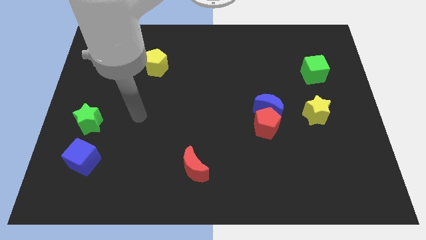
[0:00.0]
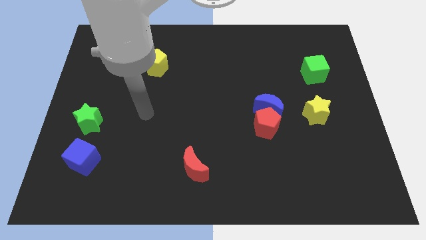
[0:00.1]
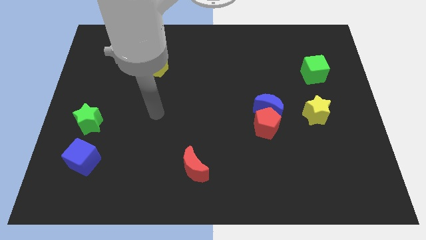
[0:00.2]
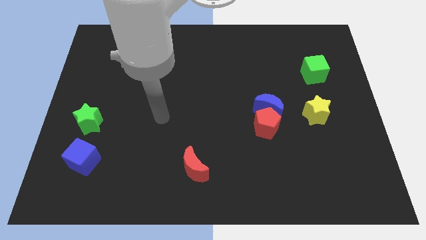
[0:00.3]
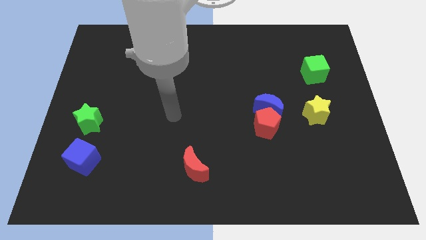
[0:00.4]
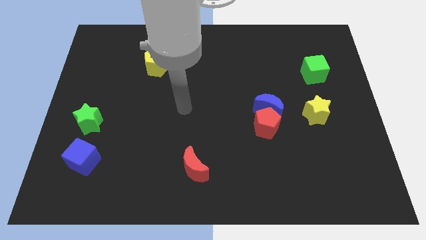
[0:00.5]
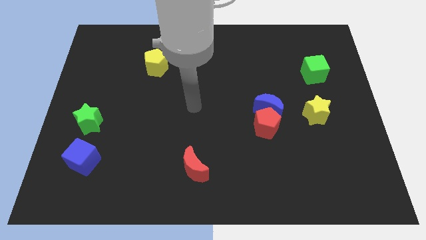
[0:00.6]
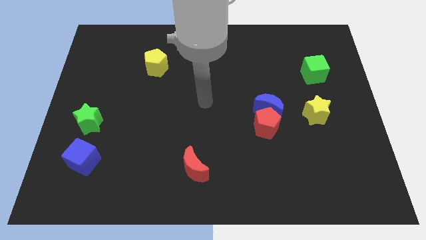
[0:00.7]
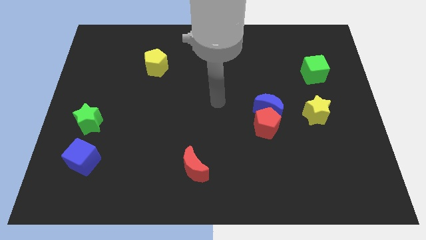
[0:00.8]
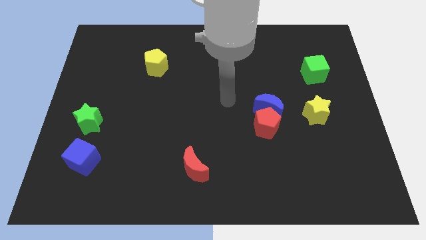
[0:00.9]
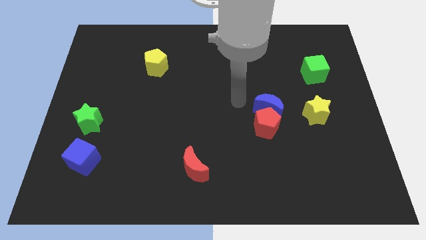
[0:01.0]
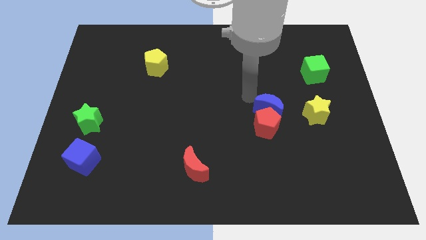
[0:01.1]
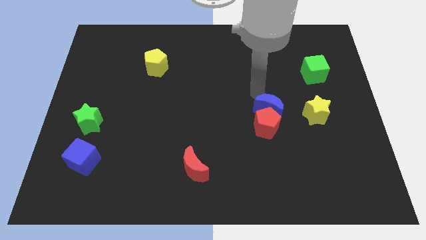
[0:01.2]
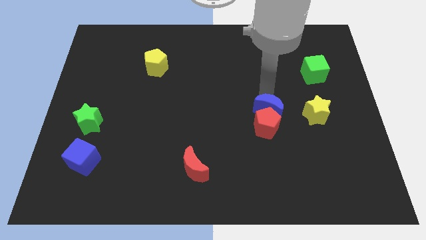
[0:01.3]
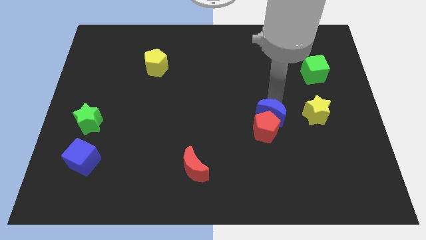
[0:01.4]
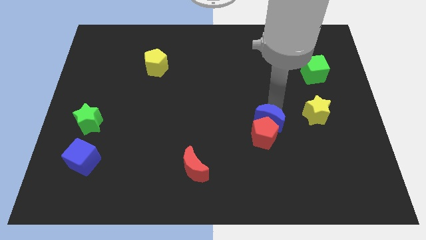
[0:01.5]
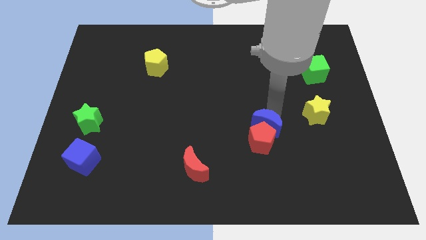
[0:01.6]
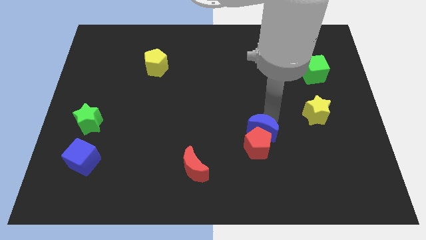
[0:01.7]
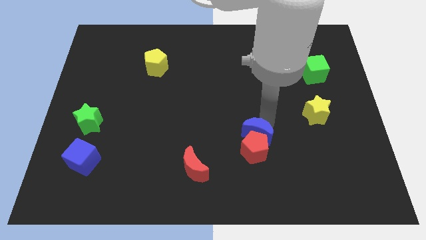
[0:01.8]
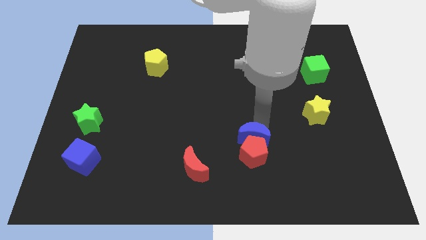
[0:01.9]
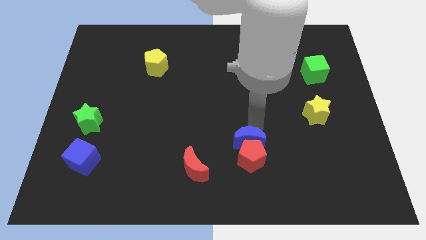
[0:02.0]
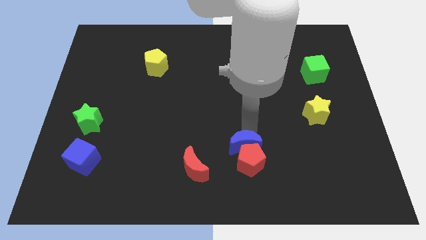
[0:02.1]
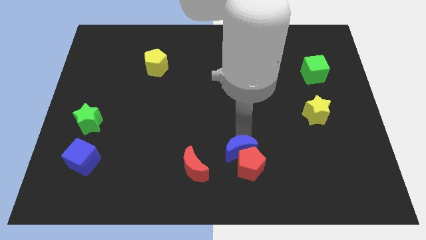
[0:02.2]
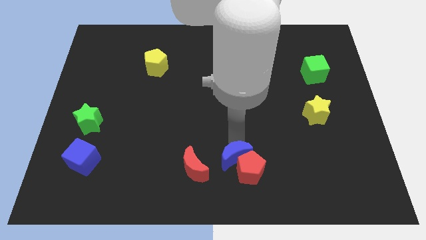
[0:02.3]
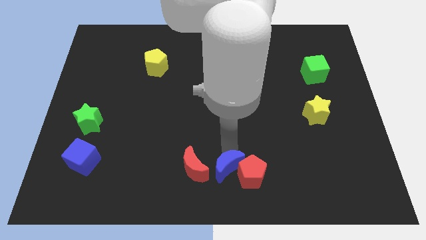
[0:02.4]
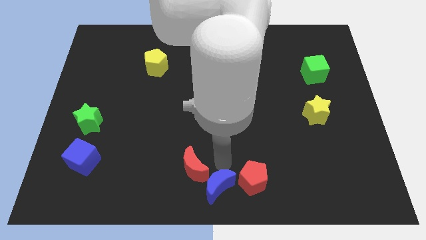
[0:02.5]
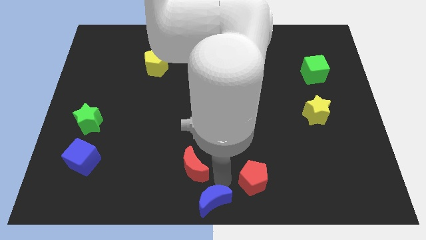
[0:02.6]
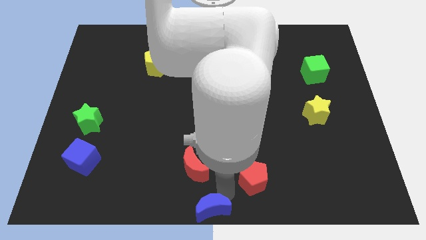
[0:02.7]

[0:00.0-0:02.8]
separate the red pentagon from the blue moon

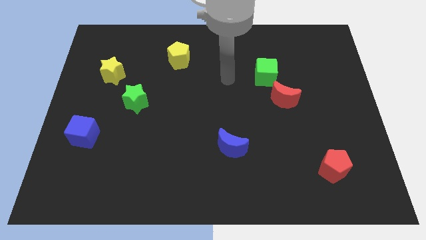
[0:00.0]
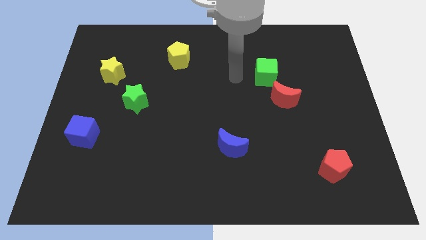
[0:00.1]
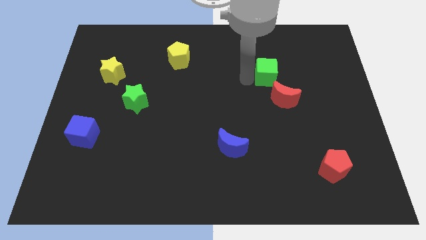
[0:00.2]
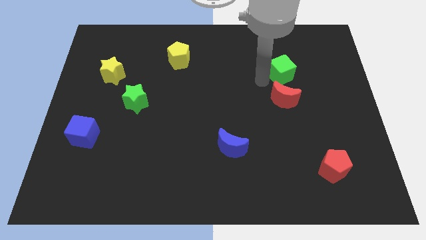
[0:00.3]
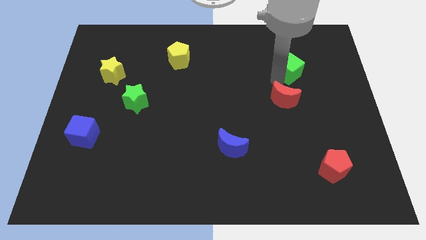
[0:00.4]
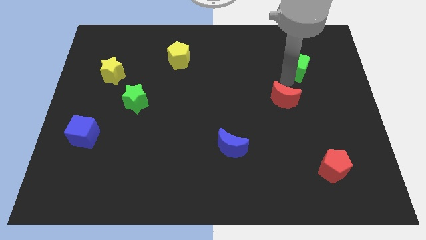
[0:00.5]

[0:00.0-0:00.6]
move the red moon away from the green cube

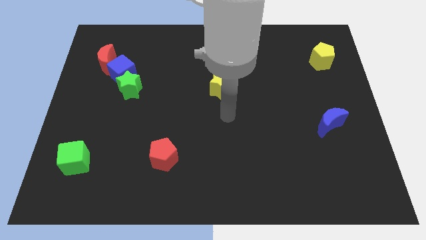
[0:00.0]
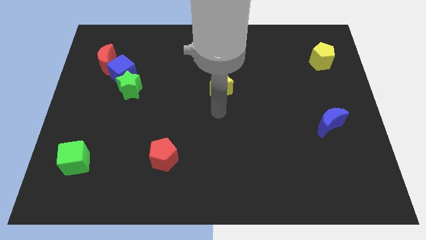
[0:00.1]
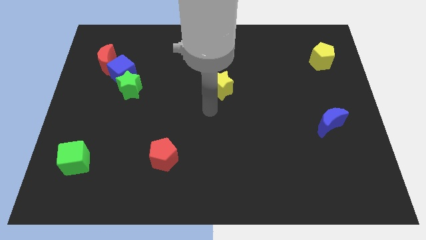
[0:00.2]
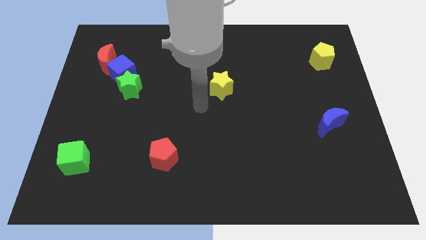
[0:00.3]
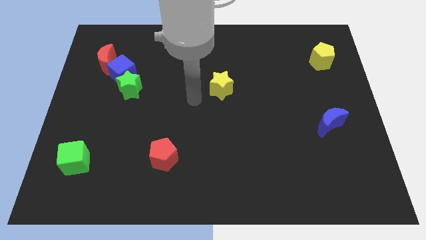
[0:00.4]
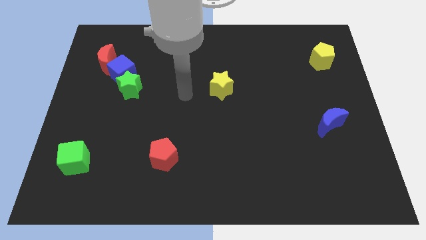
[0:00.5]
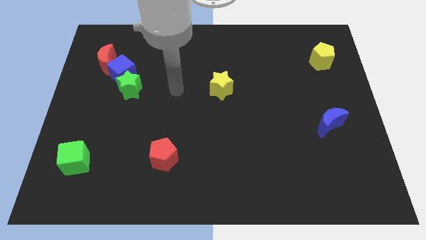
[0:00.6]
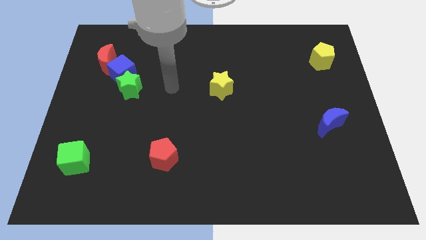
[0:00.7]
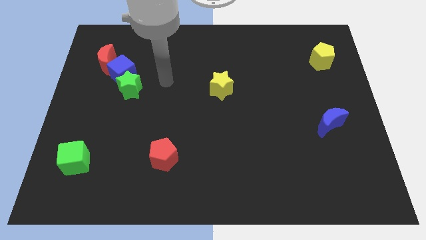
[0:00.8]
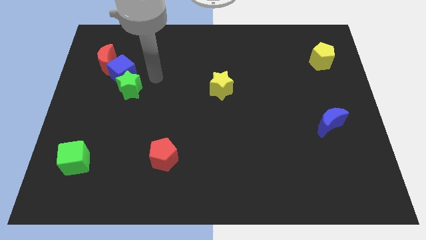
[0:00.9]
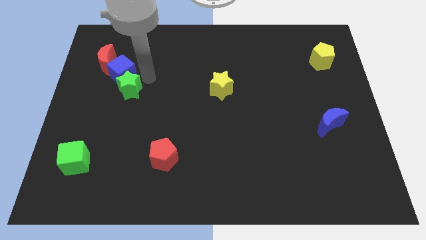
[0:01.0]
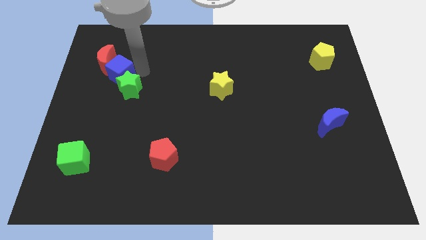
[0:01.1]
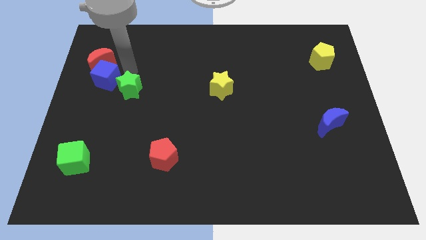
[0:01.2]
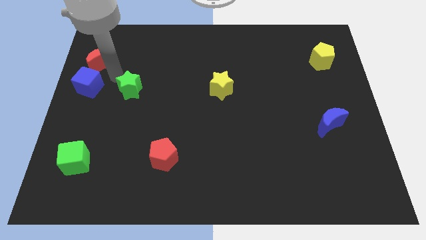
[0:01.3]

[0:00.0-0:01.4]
pull the green star apart from the blue cube

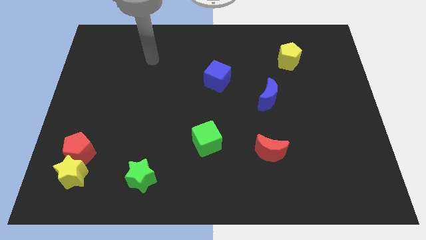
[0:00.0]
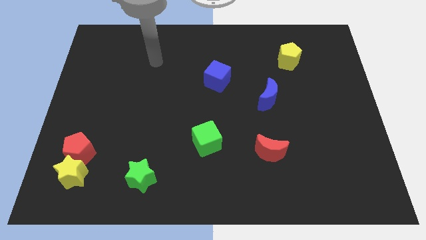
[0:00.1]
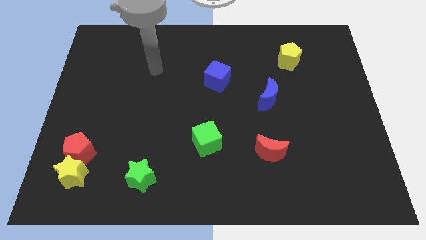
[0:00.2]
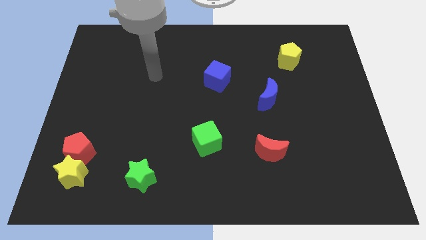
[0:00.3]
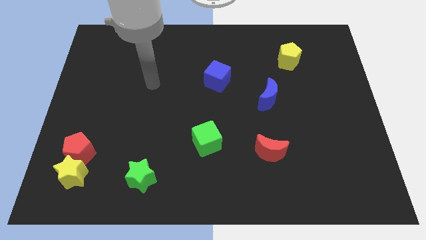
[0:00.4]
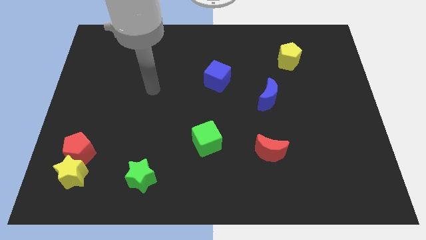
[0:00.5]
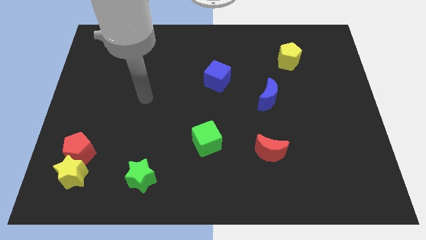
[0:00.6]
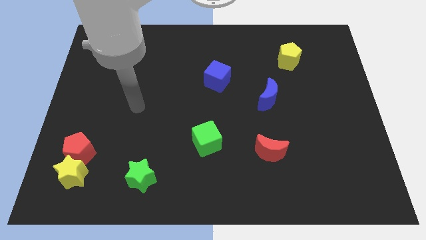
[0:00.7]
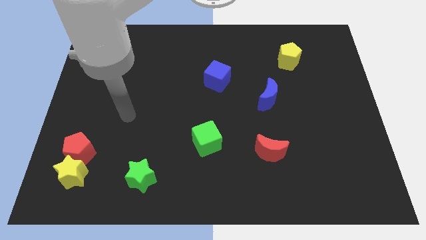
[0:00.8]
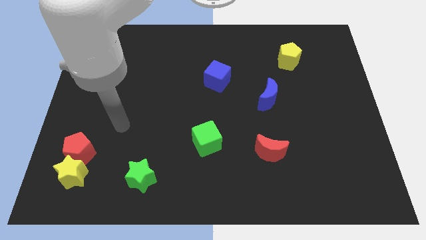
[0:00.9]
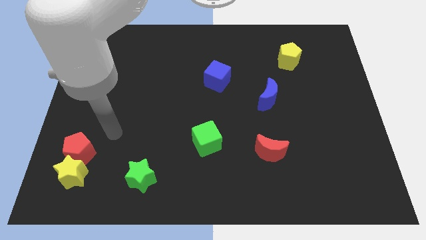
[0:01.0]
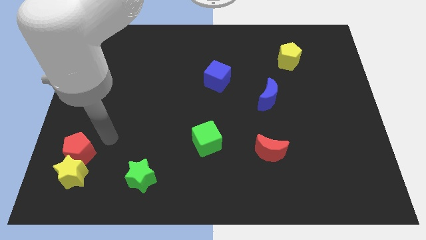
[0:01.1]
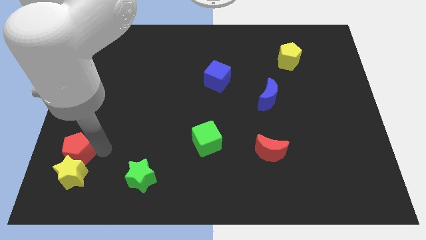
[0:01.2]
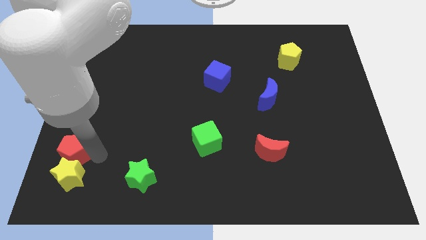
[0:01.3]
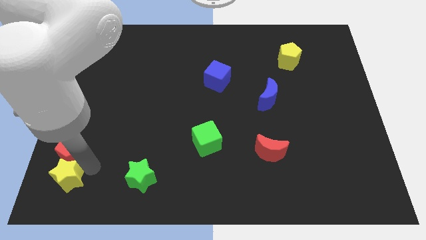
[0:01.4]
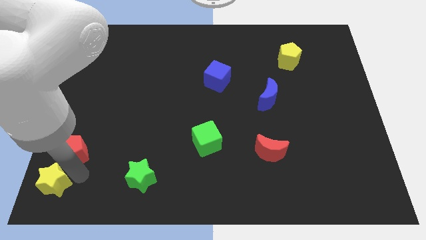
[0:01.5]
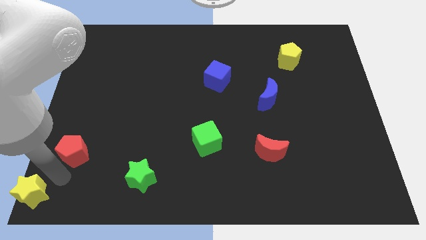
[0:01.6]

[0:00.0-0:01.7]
move the red pentagon away from the yellow star

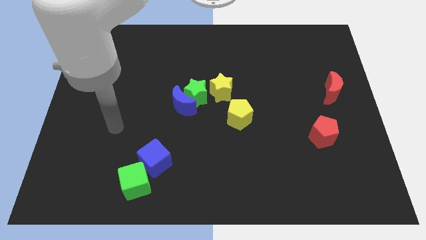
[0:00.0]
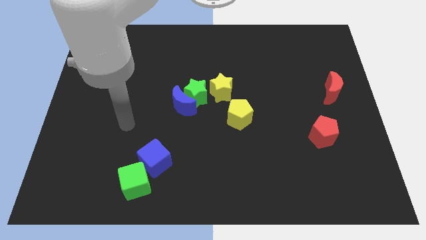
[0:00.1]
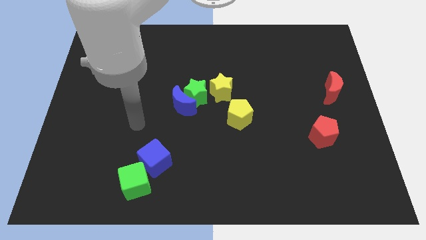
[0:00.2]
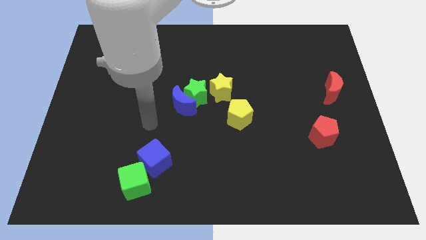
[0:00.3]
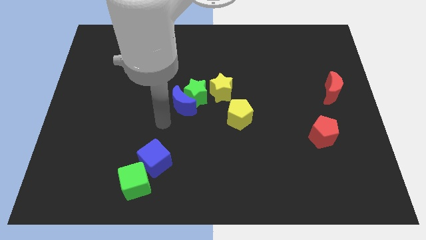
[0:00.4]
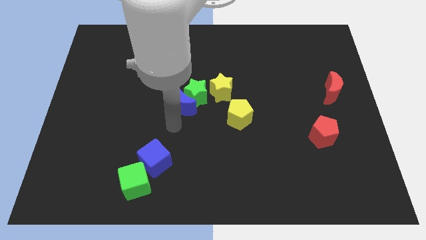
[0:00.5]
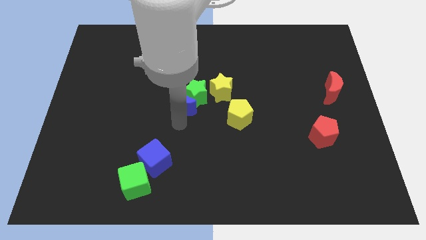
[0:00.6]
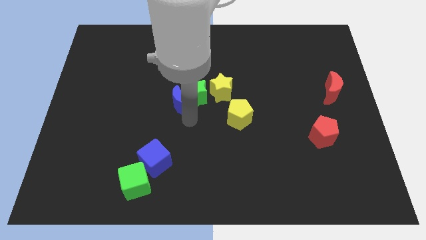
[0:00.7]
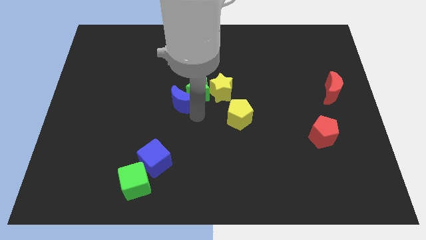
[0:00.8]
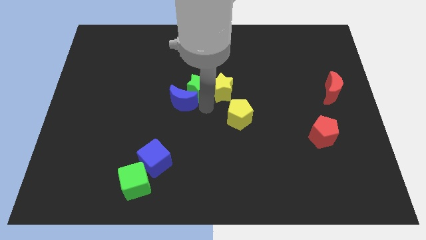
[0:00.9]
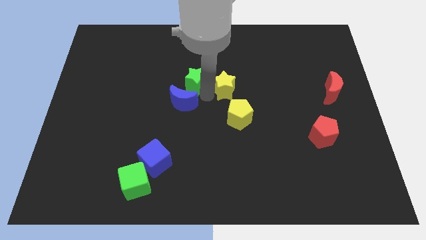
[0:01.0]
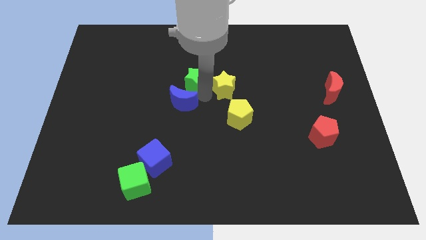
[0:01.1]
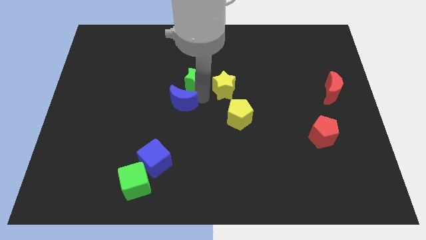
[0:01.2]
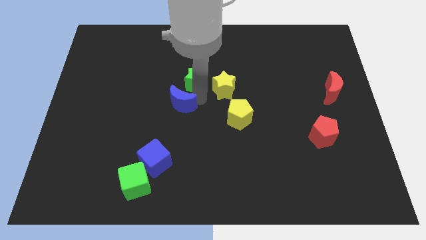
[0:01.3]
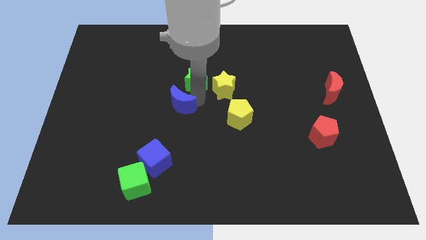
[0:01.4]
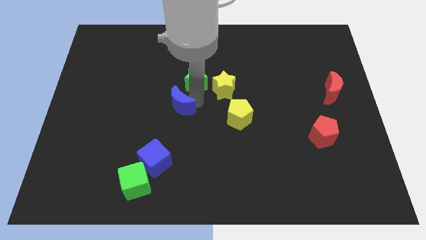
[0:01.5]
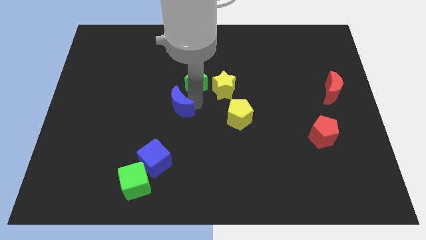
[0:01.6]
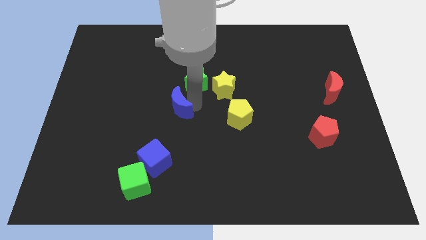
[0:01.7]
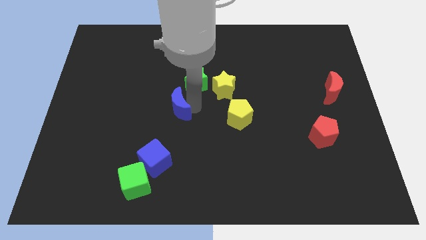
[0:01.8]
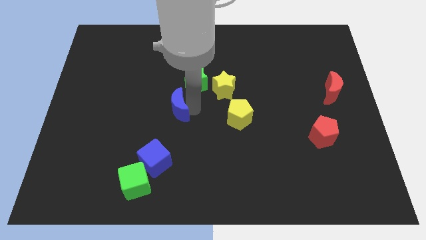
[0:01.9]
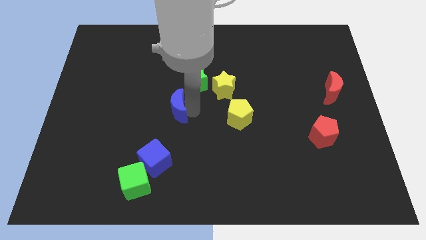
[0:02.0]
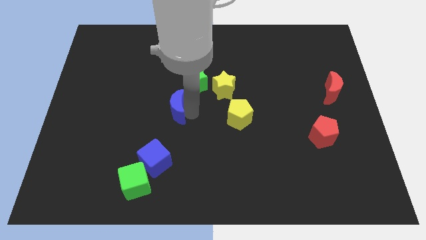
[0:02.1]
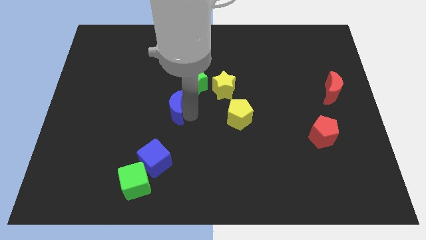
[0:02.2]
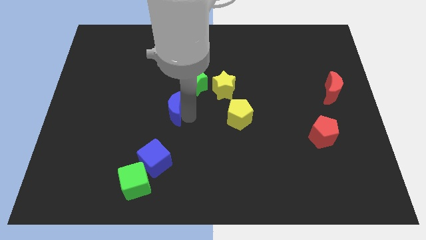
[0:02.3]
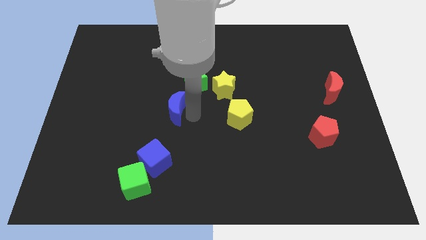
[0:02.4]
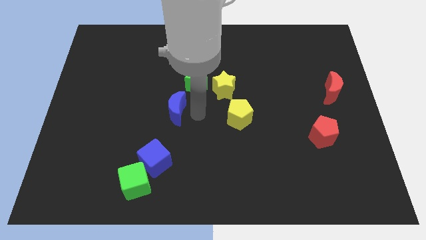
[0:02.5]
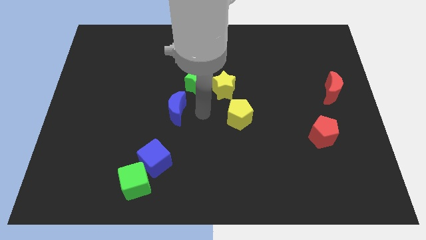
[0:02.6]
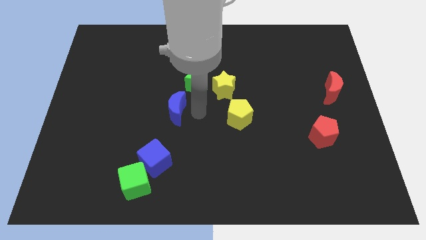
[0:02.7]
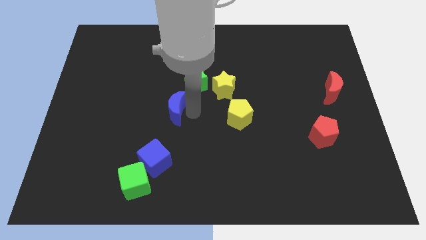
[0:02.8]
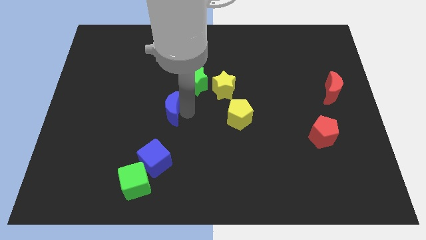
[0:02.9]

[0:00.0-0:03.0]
move the blue moon away from the green star

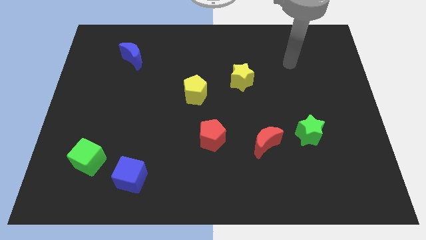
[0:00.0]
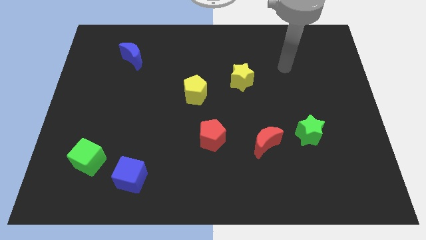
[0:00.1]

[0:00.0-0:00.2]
move the blue cube away from the green cube
